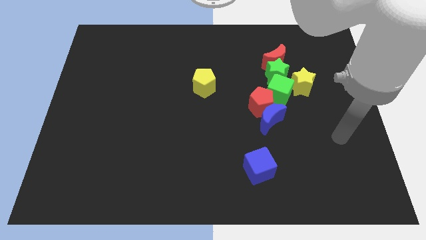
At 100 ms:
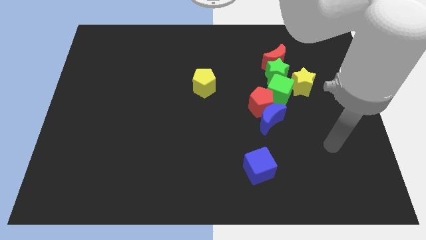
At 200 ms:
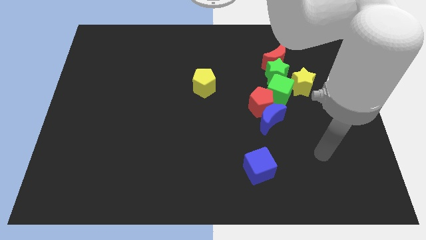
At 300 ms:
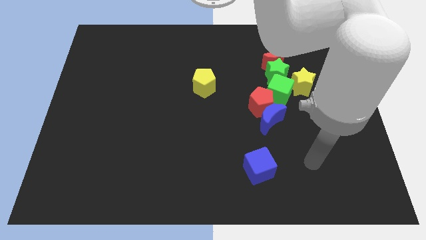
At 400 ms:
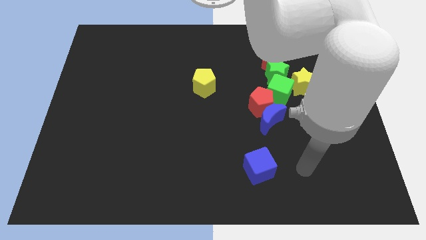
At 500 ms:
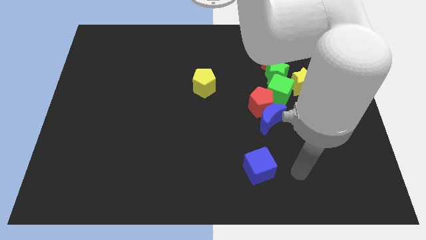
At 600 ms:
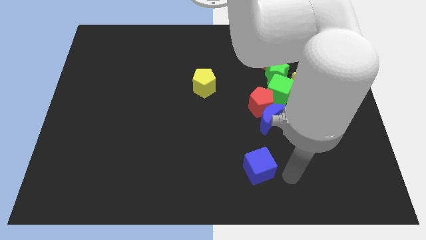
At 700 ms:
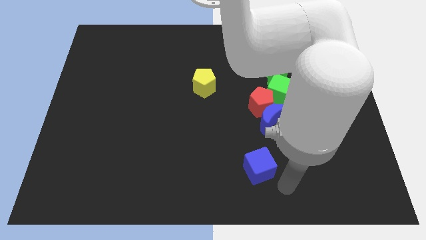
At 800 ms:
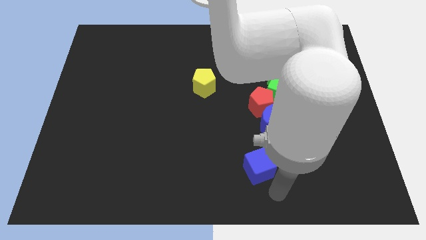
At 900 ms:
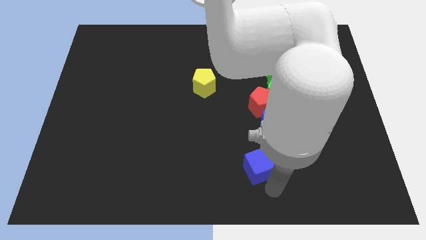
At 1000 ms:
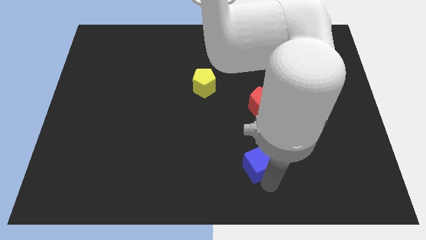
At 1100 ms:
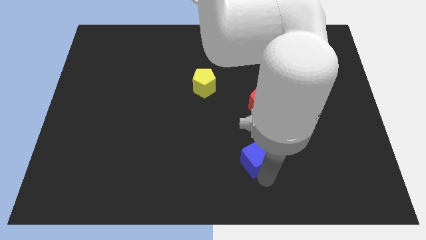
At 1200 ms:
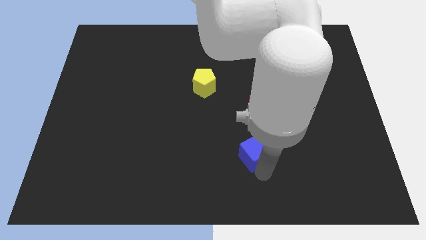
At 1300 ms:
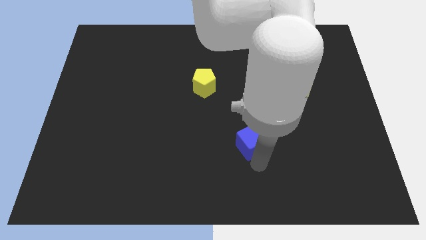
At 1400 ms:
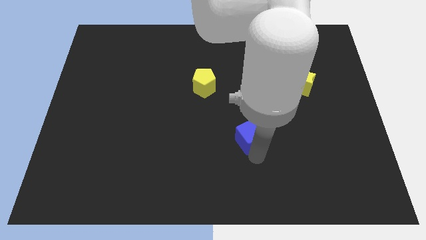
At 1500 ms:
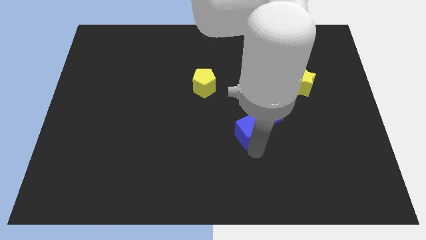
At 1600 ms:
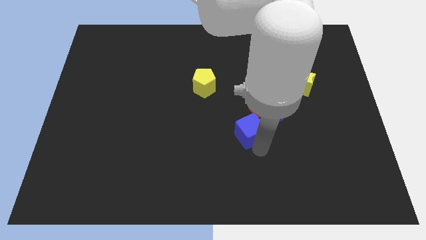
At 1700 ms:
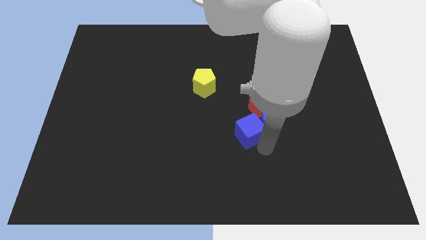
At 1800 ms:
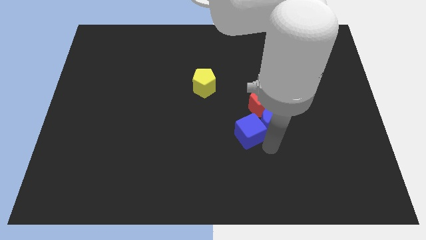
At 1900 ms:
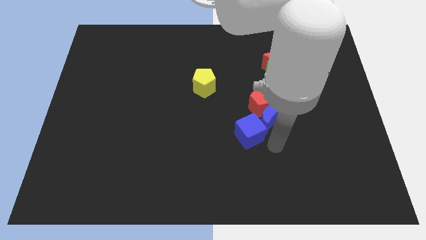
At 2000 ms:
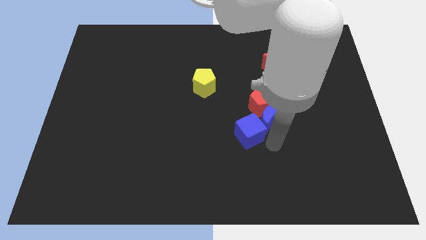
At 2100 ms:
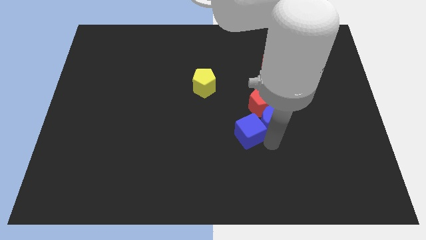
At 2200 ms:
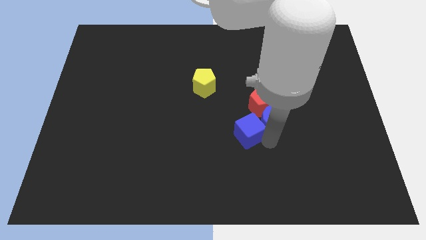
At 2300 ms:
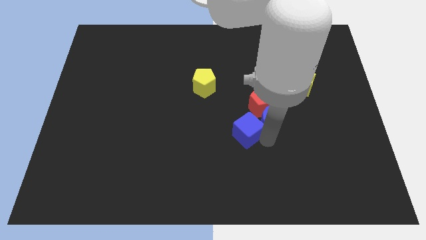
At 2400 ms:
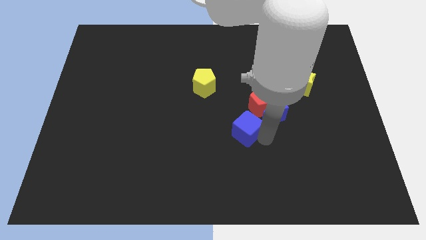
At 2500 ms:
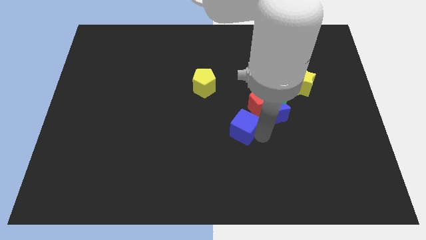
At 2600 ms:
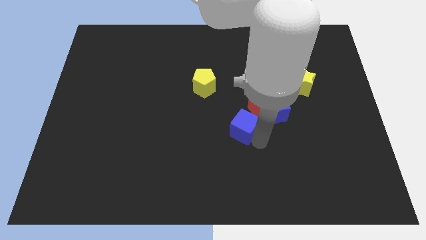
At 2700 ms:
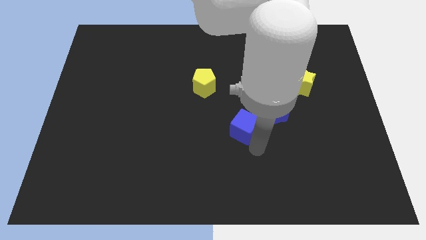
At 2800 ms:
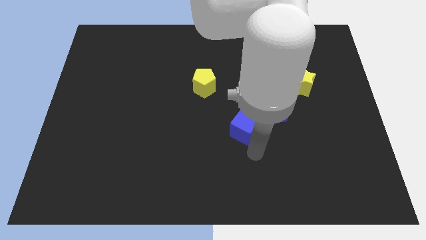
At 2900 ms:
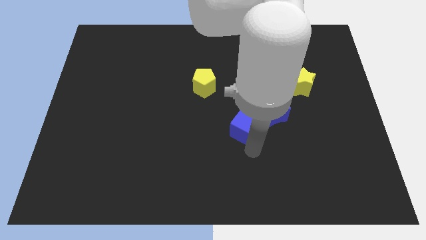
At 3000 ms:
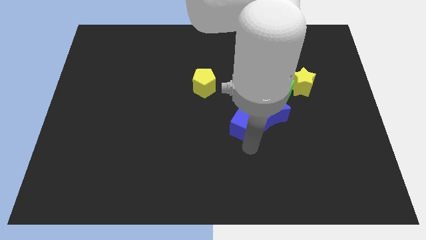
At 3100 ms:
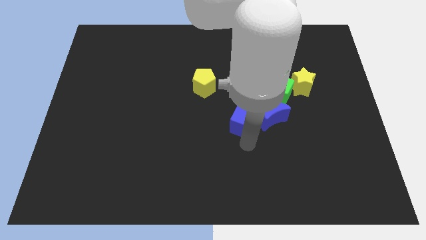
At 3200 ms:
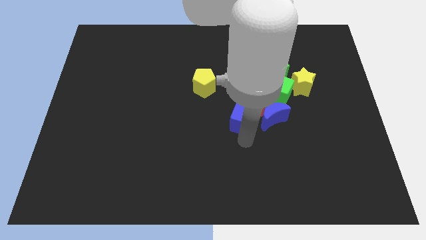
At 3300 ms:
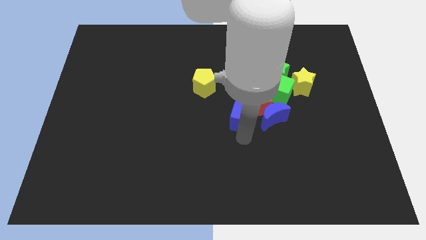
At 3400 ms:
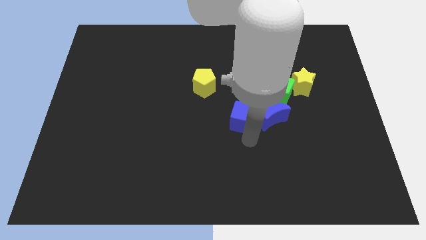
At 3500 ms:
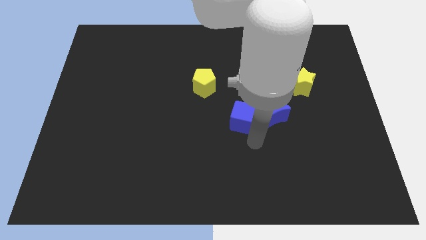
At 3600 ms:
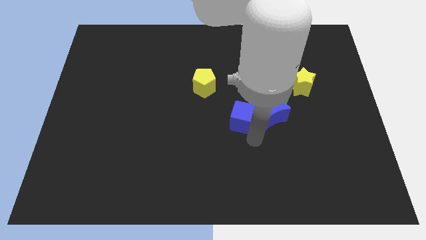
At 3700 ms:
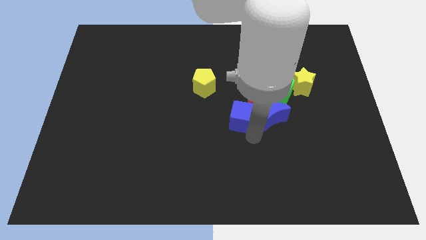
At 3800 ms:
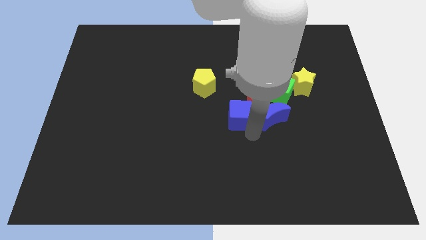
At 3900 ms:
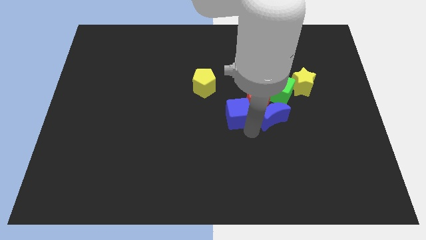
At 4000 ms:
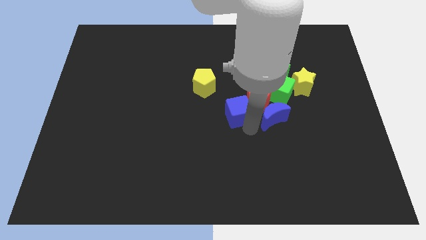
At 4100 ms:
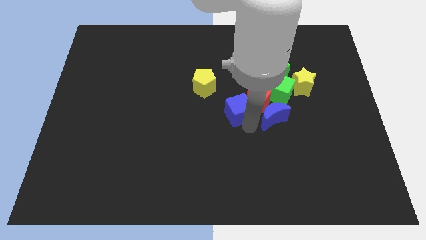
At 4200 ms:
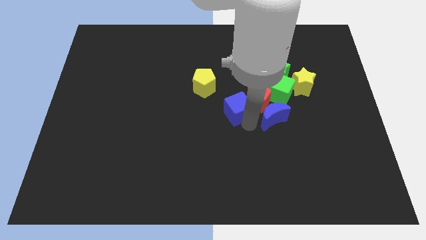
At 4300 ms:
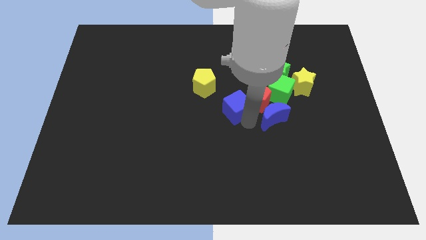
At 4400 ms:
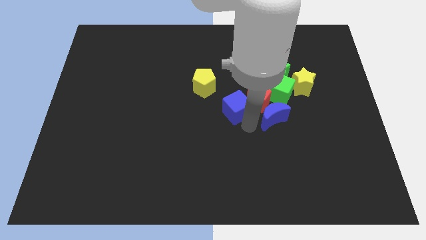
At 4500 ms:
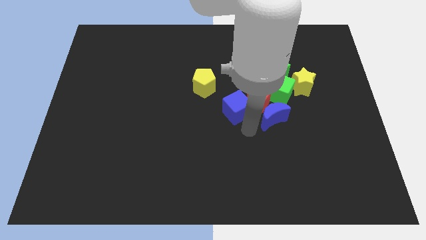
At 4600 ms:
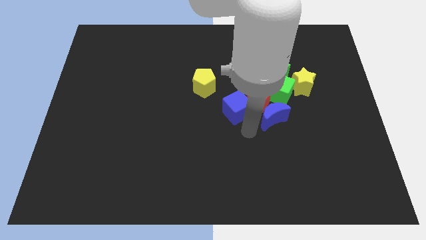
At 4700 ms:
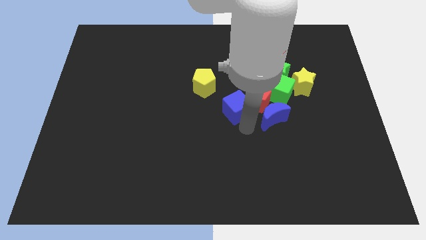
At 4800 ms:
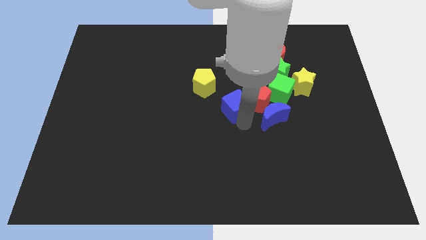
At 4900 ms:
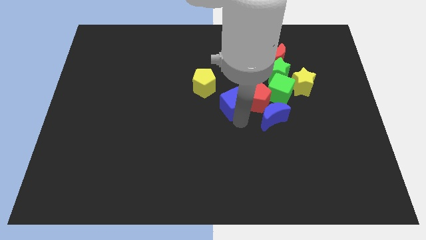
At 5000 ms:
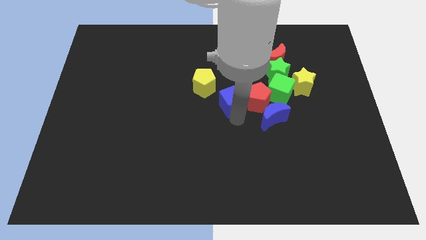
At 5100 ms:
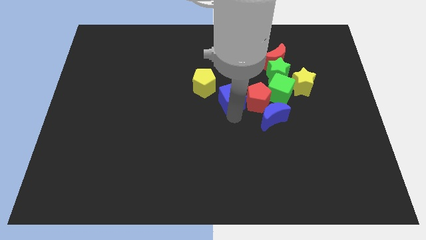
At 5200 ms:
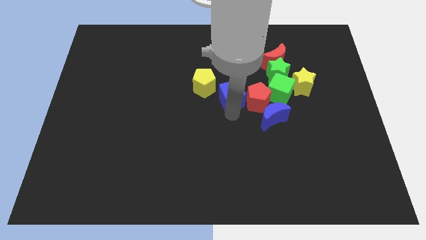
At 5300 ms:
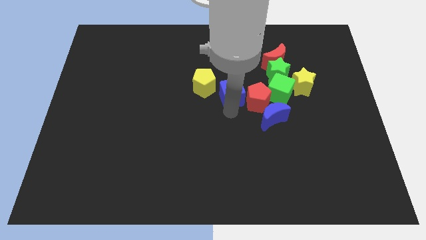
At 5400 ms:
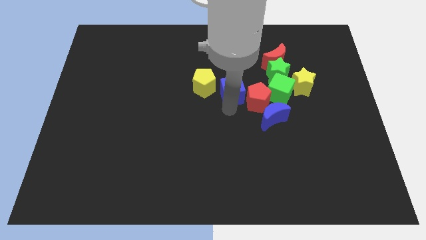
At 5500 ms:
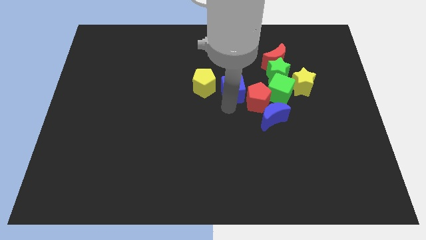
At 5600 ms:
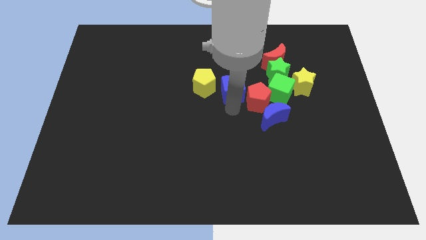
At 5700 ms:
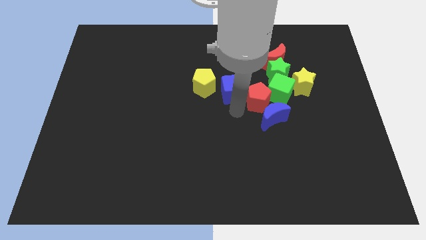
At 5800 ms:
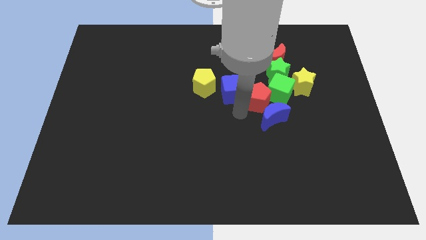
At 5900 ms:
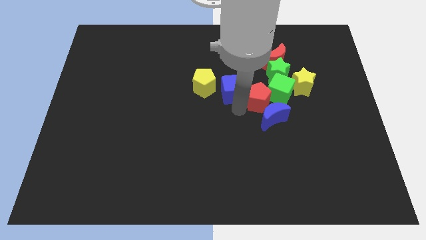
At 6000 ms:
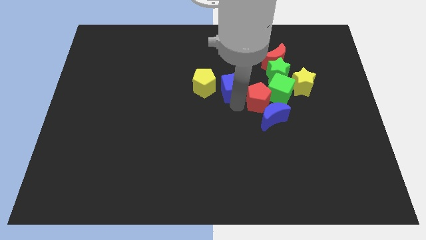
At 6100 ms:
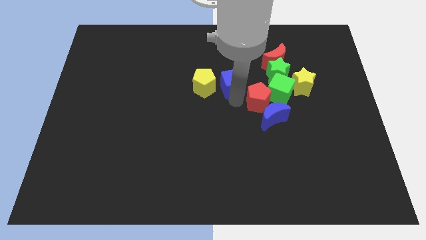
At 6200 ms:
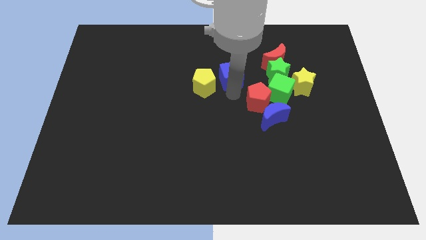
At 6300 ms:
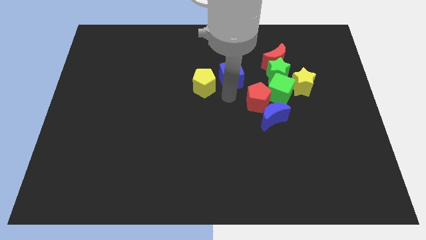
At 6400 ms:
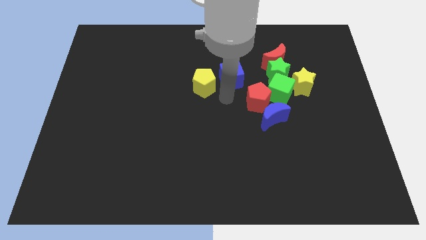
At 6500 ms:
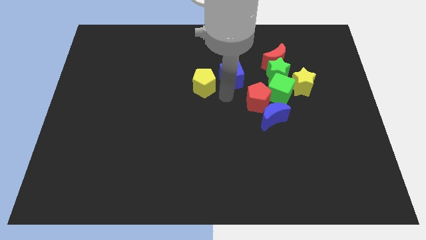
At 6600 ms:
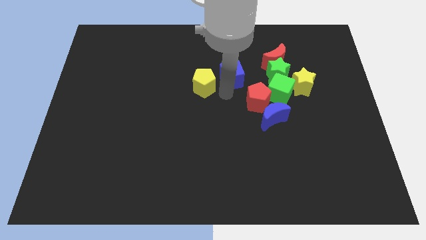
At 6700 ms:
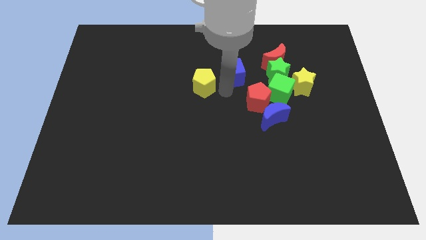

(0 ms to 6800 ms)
push the blue cube to the left of the red moon

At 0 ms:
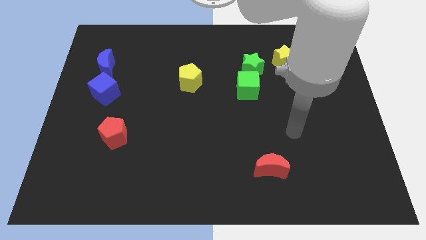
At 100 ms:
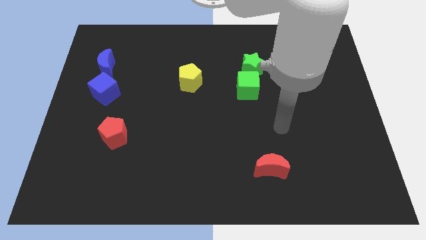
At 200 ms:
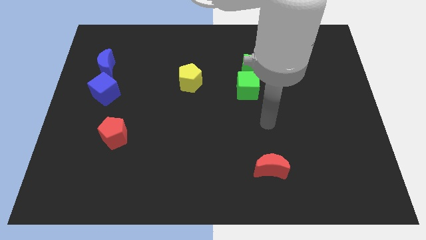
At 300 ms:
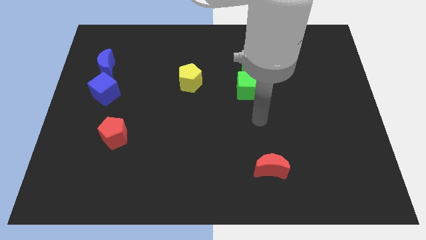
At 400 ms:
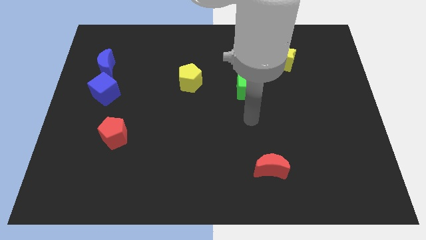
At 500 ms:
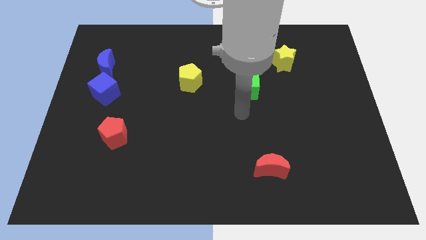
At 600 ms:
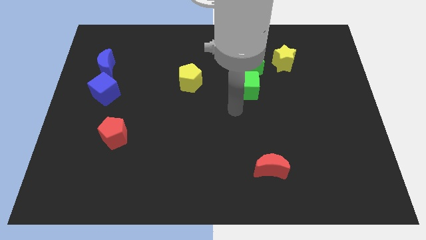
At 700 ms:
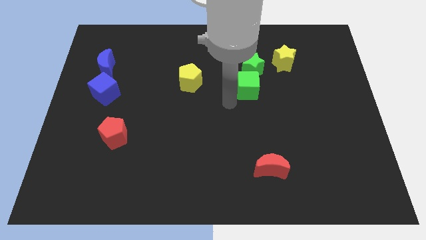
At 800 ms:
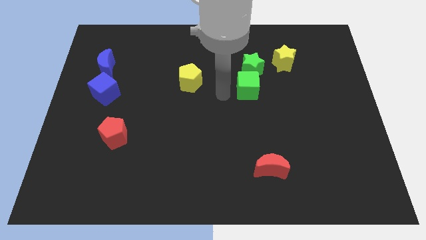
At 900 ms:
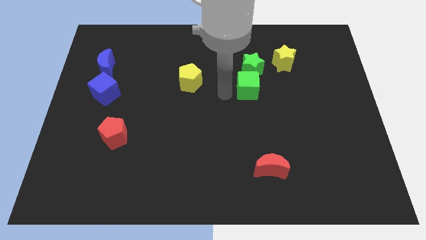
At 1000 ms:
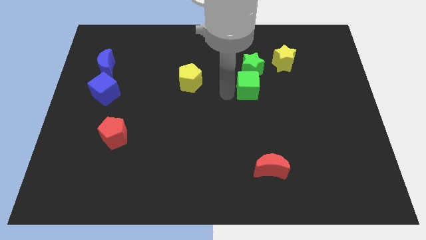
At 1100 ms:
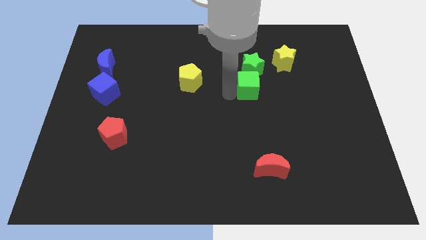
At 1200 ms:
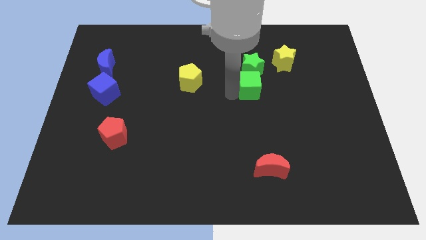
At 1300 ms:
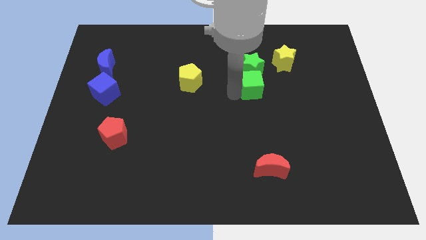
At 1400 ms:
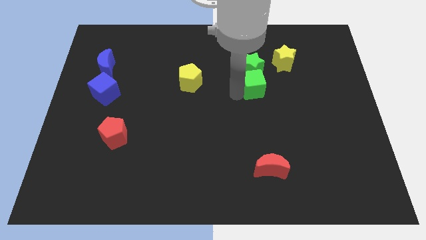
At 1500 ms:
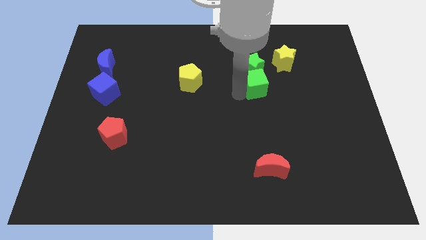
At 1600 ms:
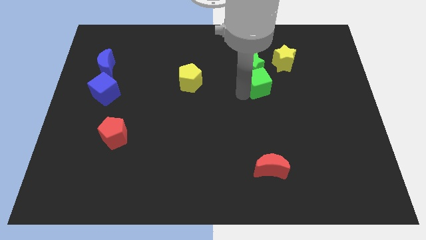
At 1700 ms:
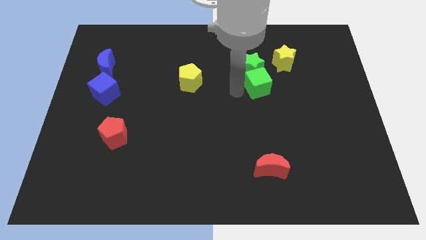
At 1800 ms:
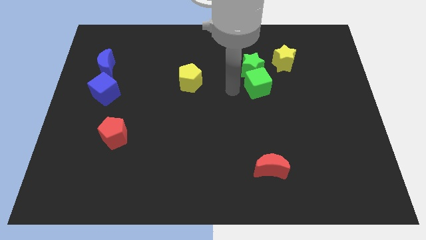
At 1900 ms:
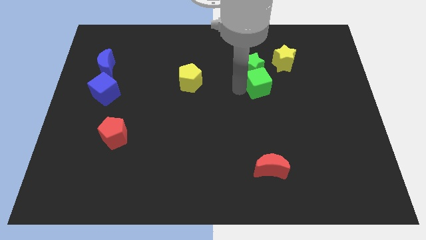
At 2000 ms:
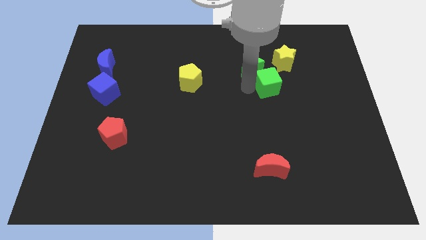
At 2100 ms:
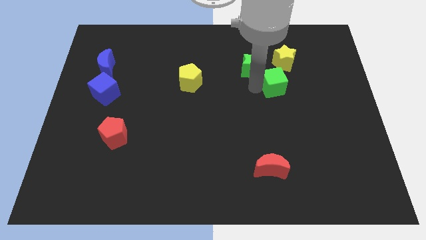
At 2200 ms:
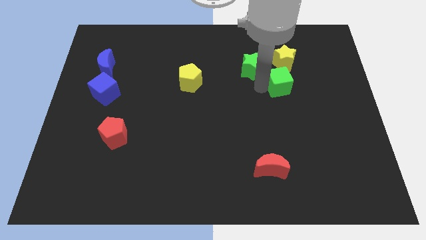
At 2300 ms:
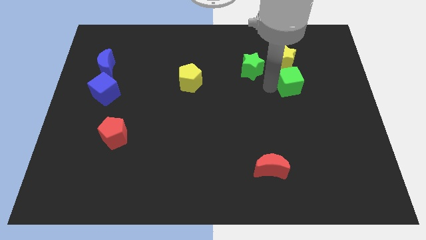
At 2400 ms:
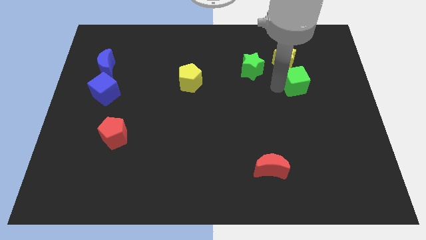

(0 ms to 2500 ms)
move the green cube to the bottom right of the yellow star
